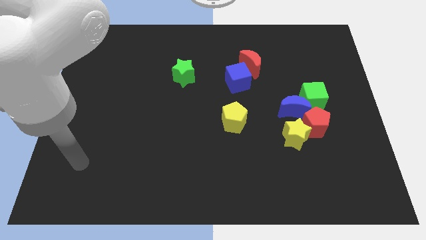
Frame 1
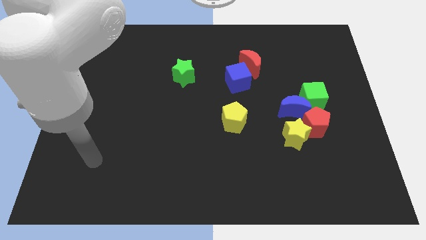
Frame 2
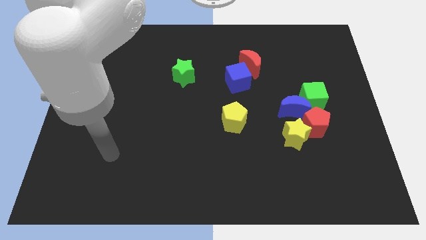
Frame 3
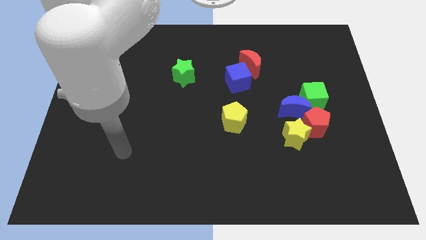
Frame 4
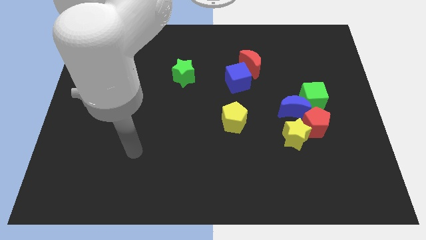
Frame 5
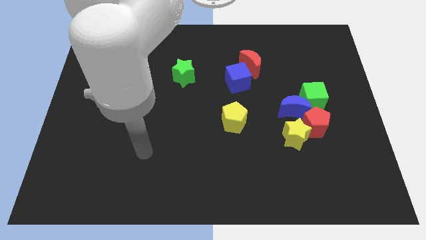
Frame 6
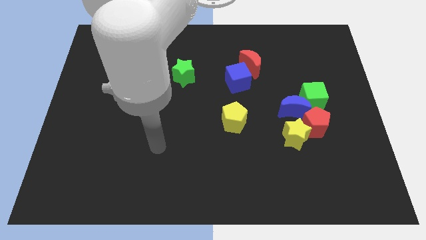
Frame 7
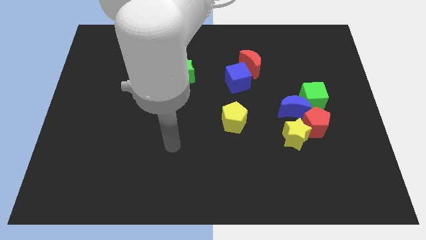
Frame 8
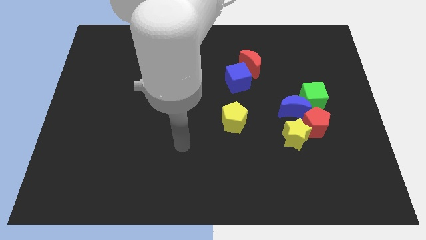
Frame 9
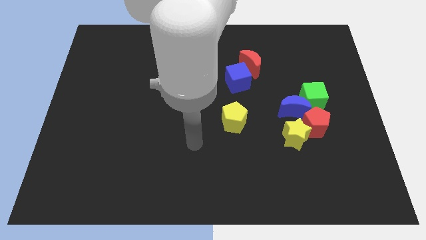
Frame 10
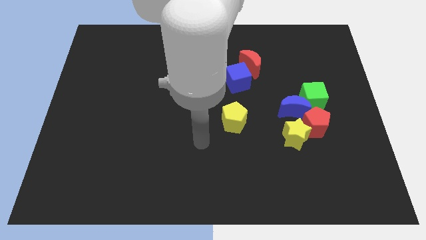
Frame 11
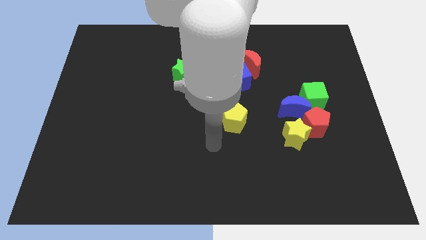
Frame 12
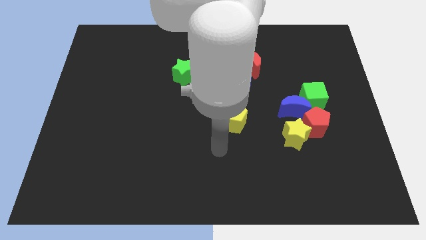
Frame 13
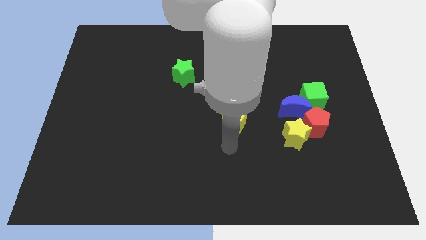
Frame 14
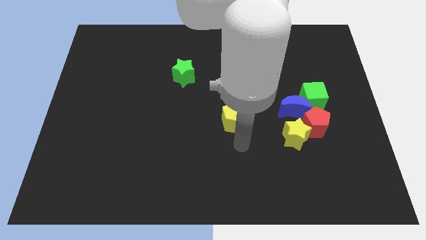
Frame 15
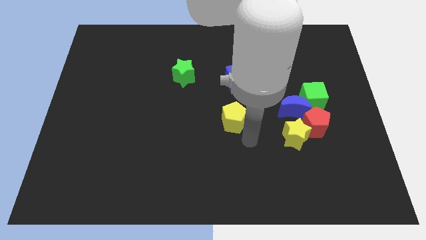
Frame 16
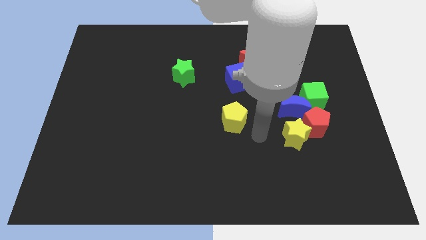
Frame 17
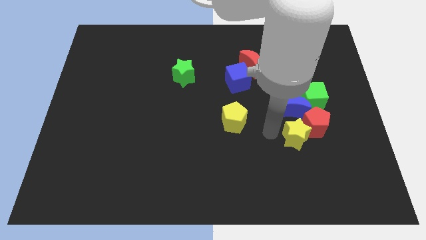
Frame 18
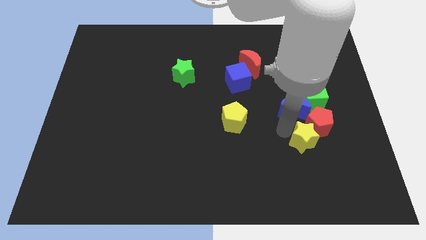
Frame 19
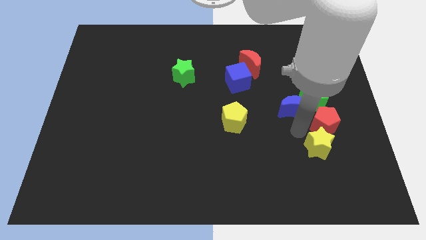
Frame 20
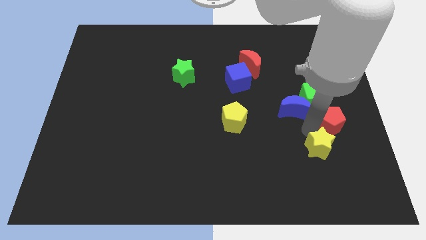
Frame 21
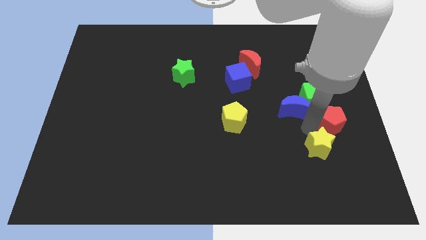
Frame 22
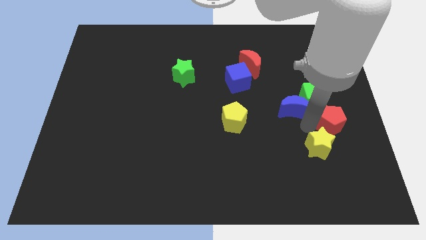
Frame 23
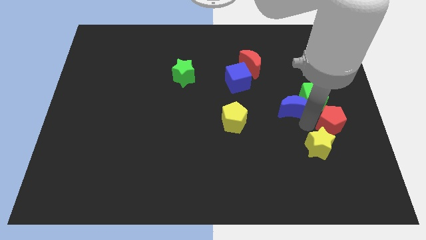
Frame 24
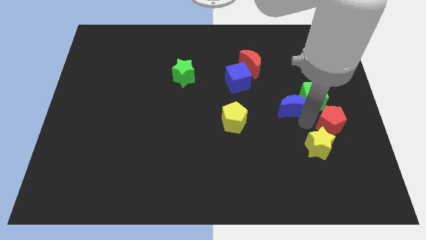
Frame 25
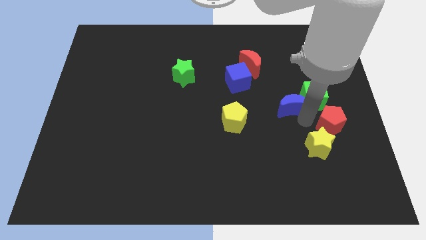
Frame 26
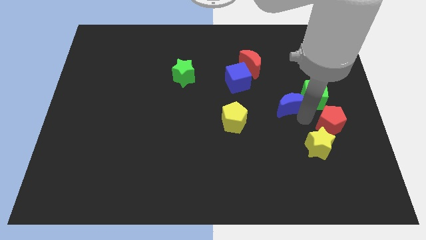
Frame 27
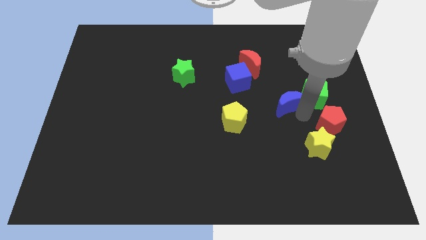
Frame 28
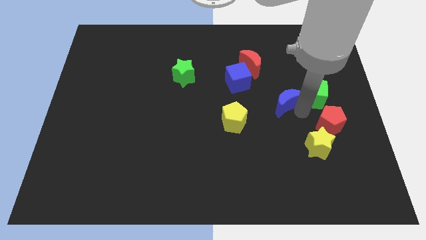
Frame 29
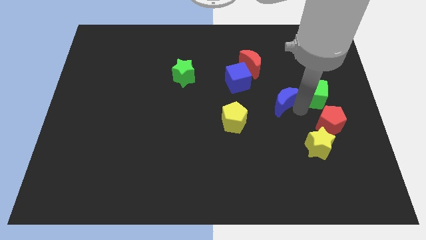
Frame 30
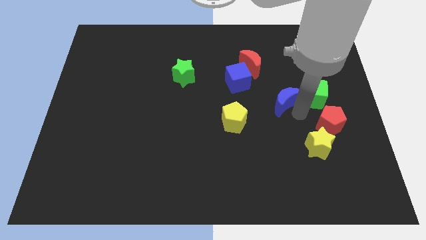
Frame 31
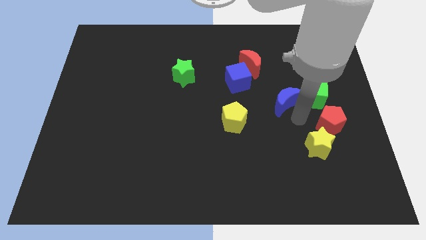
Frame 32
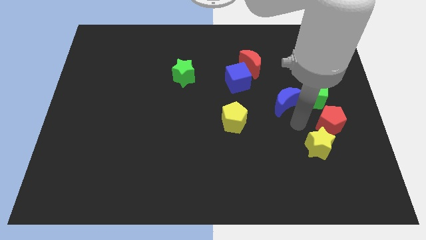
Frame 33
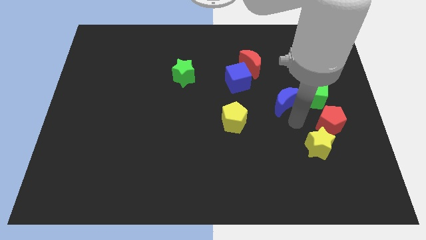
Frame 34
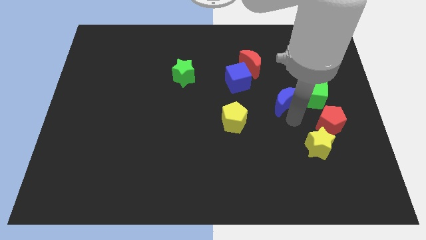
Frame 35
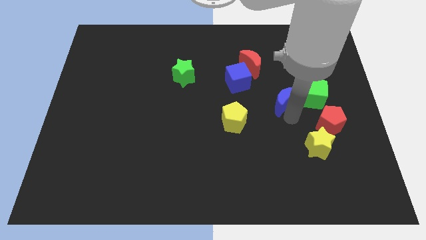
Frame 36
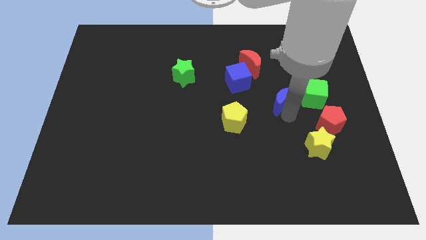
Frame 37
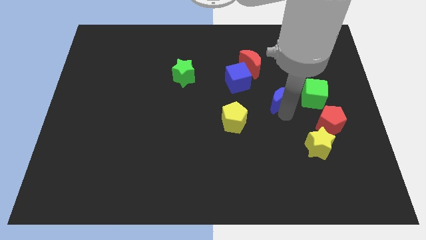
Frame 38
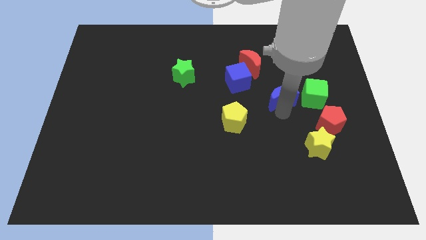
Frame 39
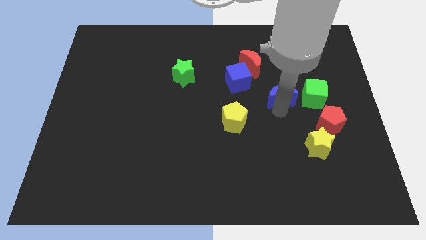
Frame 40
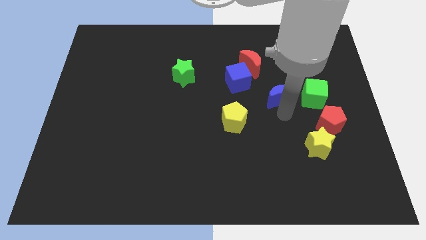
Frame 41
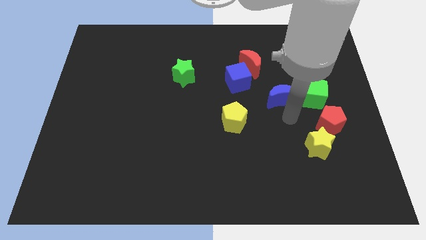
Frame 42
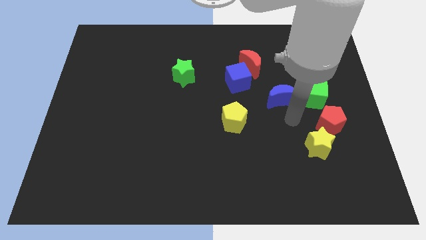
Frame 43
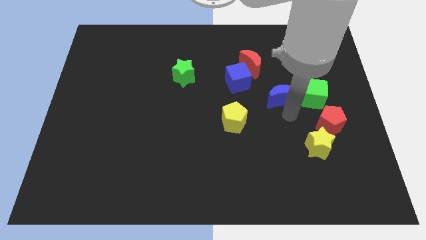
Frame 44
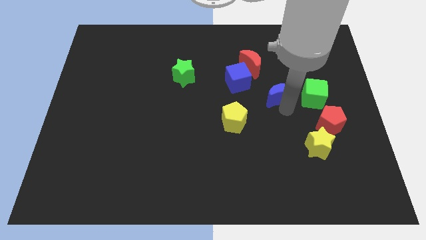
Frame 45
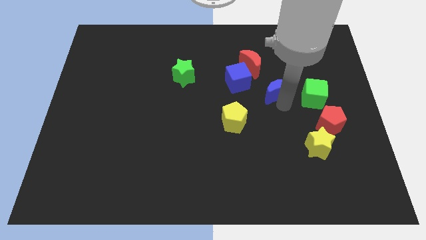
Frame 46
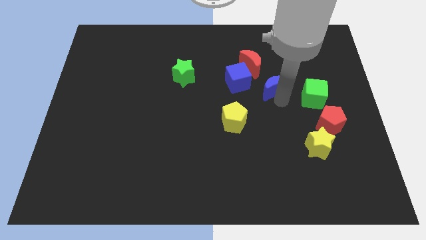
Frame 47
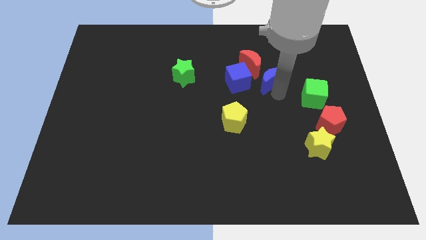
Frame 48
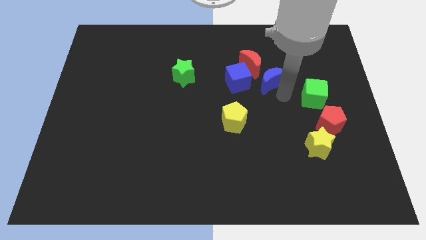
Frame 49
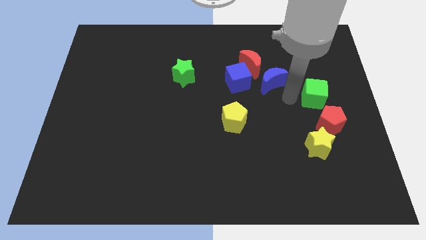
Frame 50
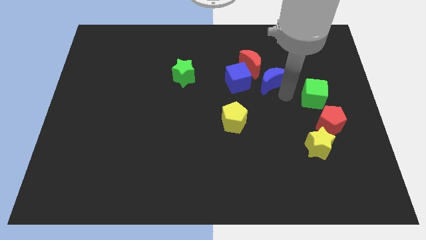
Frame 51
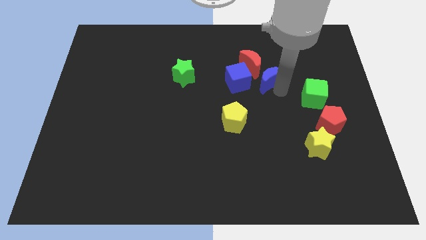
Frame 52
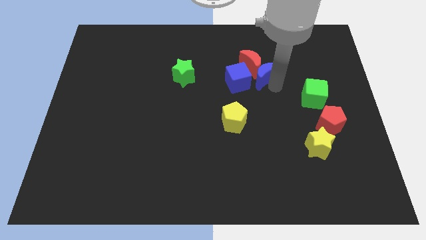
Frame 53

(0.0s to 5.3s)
put the blue moon close to the red moon

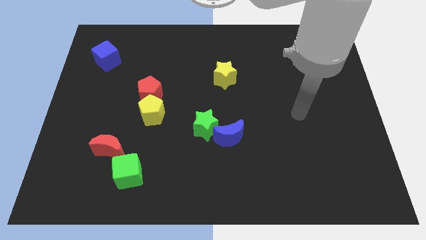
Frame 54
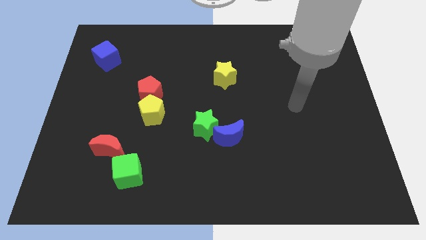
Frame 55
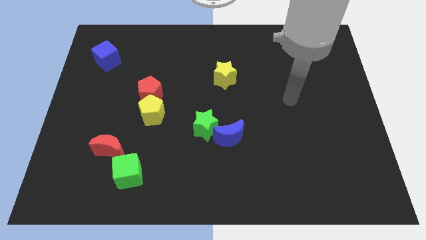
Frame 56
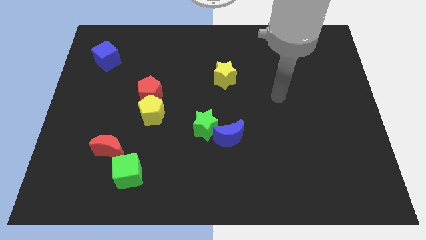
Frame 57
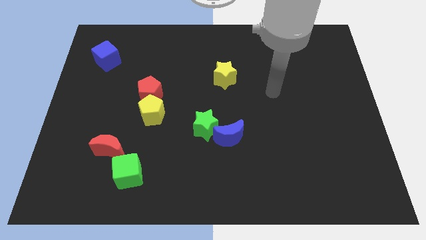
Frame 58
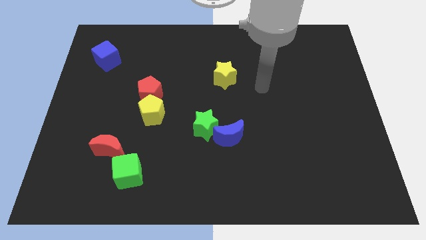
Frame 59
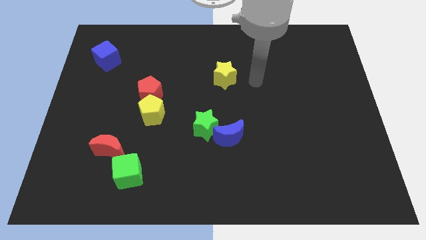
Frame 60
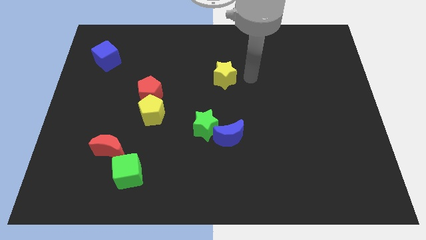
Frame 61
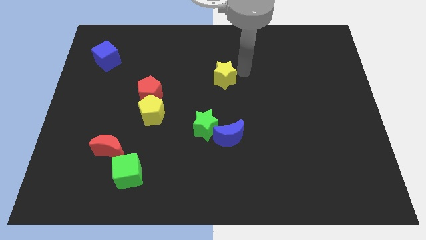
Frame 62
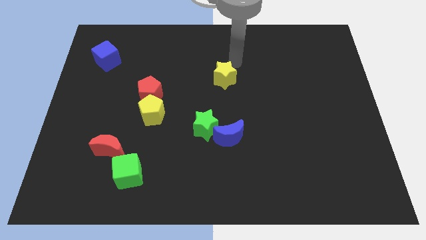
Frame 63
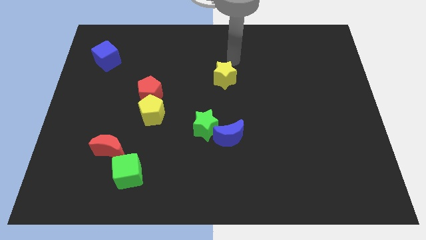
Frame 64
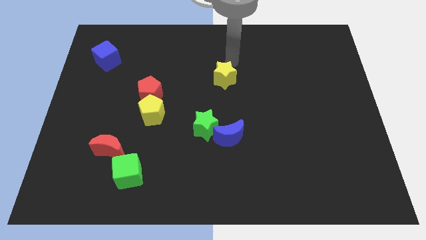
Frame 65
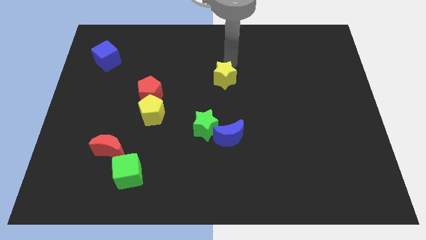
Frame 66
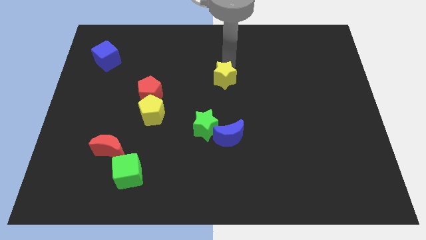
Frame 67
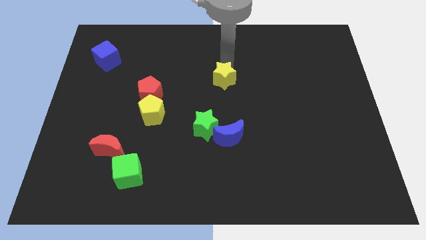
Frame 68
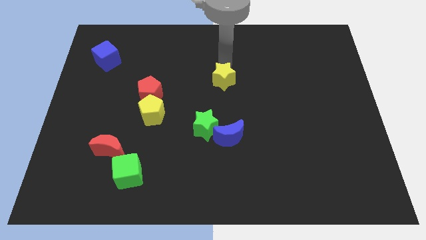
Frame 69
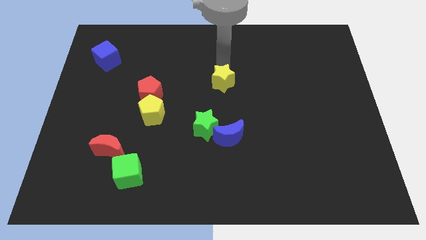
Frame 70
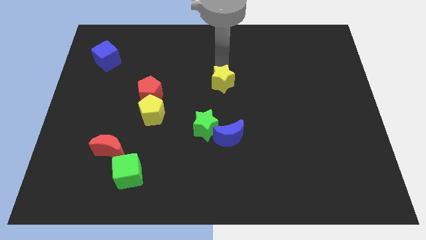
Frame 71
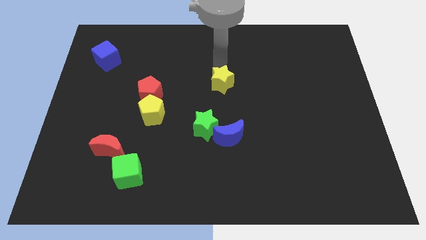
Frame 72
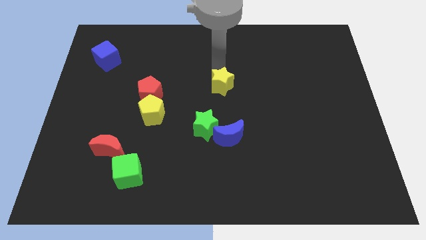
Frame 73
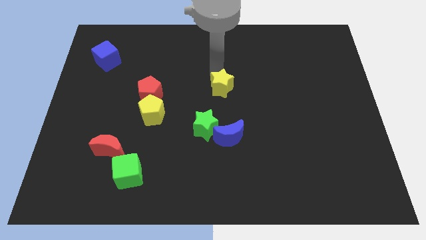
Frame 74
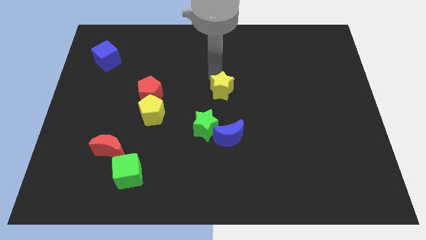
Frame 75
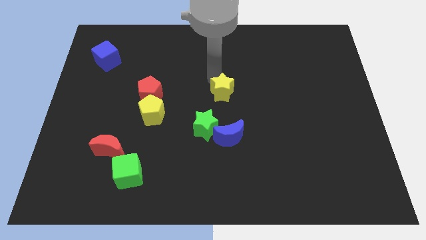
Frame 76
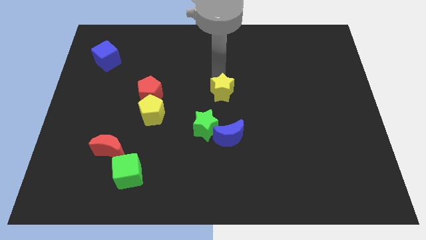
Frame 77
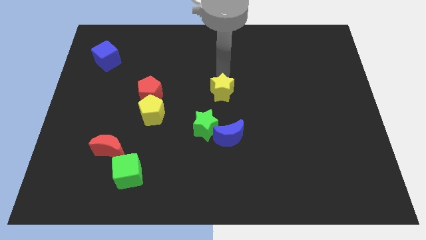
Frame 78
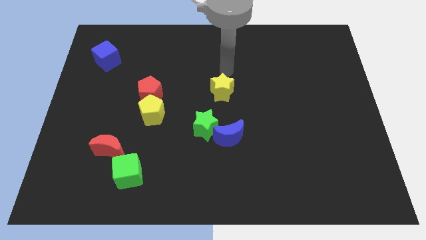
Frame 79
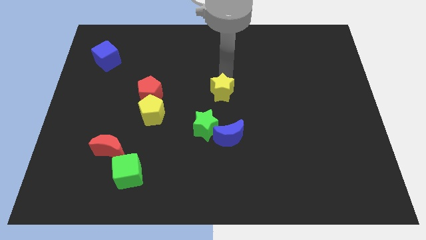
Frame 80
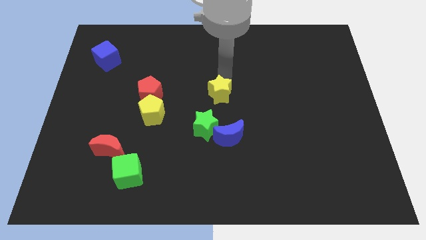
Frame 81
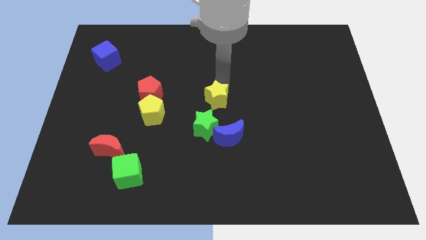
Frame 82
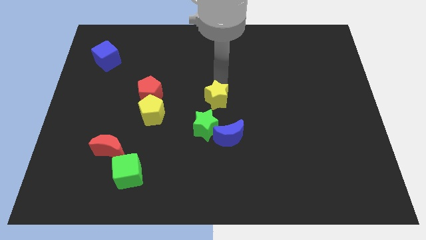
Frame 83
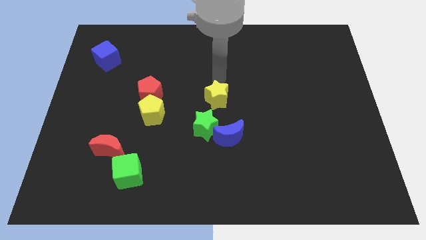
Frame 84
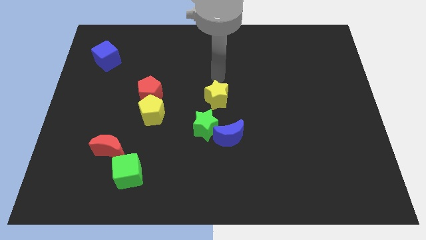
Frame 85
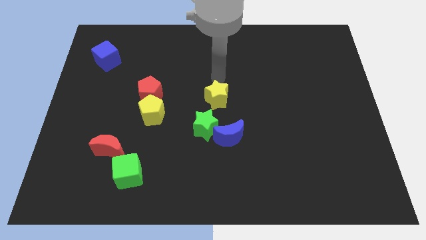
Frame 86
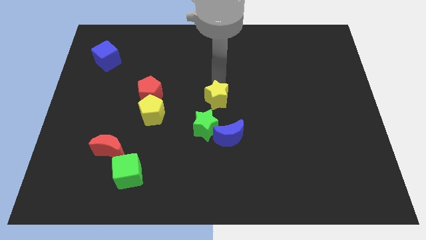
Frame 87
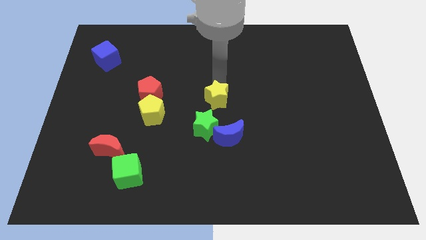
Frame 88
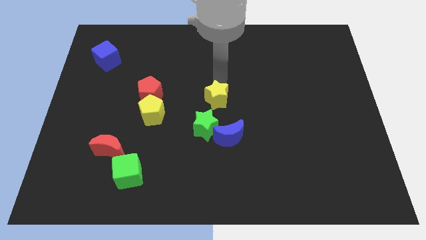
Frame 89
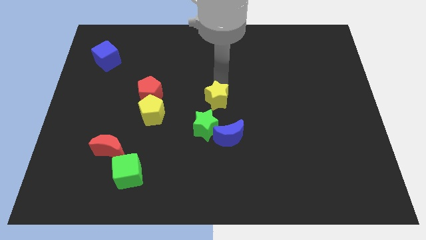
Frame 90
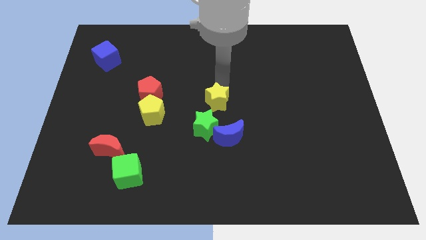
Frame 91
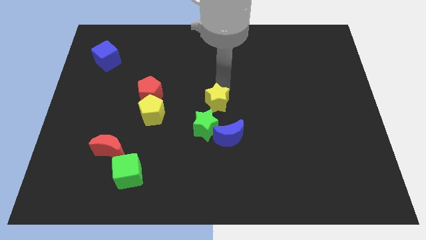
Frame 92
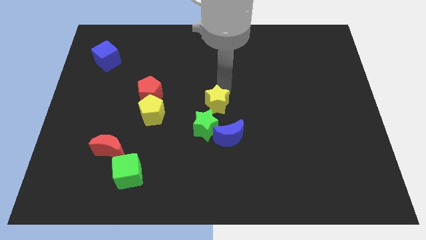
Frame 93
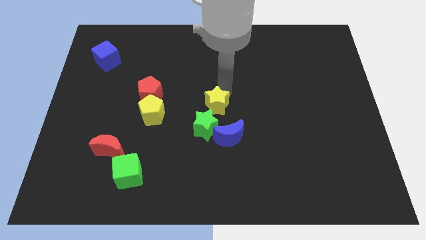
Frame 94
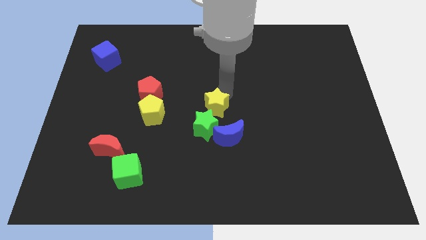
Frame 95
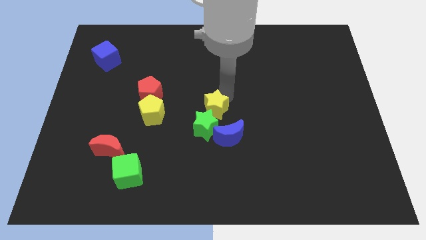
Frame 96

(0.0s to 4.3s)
slide the yellow star towards the green star
